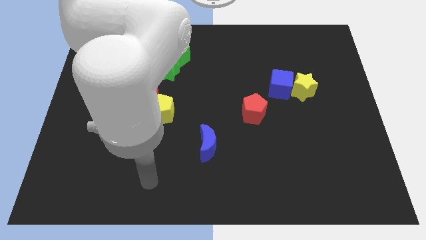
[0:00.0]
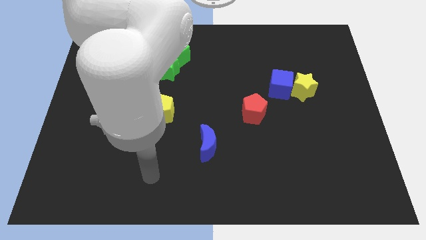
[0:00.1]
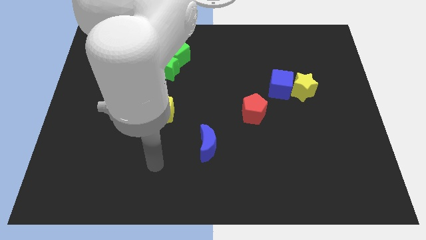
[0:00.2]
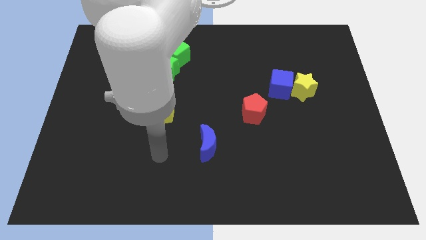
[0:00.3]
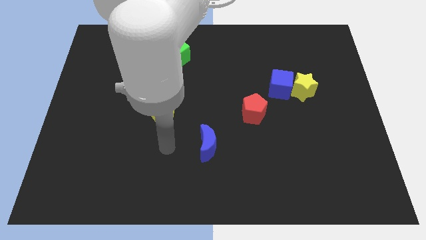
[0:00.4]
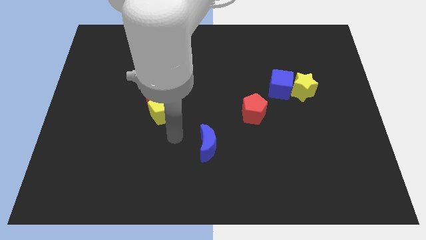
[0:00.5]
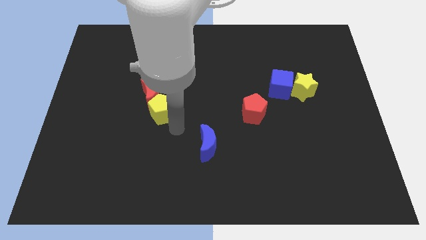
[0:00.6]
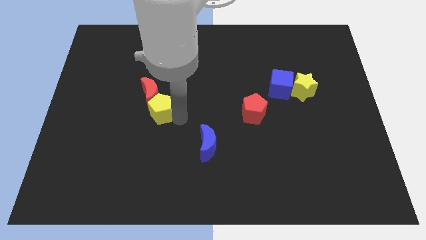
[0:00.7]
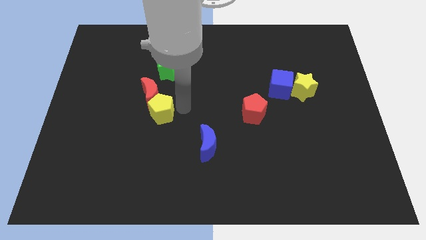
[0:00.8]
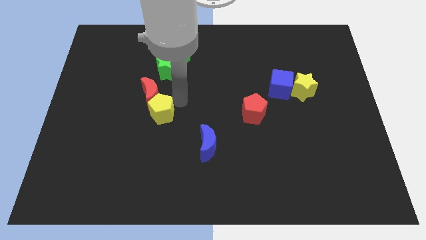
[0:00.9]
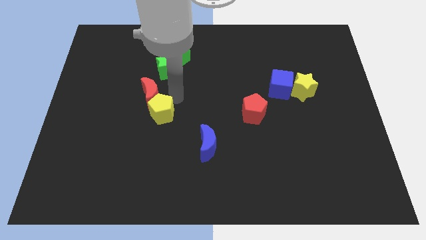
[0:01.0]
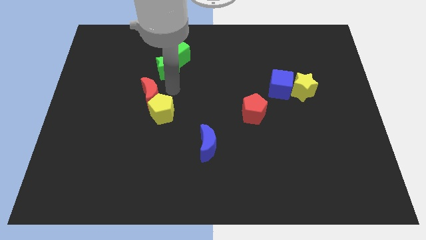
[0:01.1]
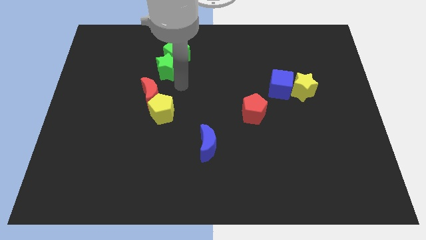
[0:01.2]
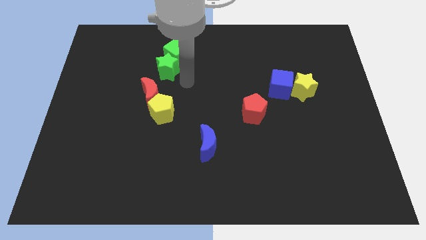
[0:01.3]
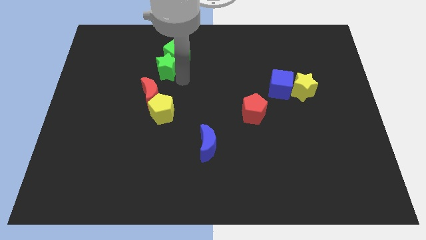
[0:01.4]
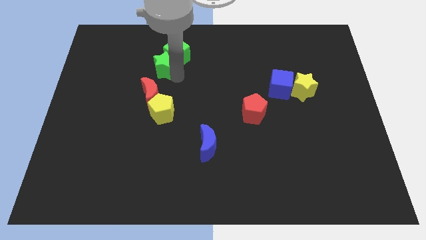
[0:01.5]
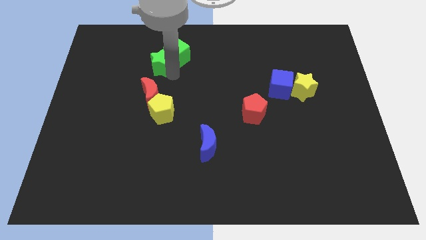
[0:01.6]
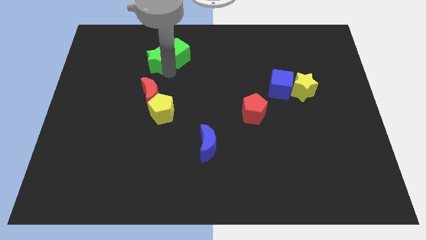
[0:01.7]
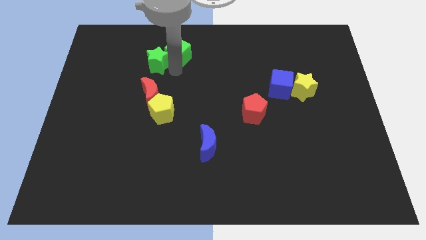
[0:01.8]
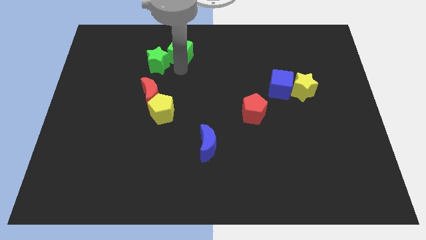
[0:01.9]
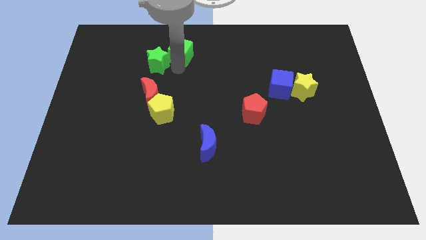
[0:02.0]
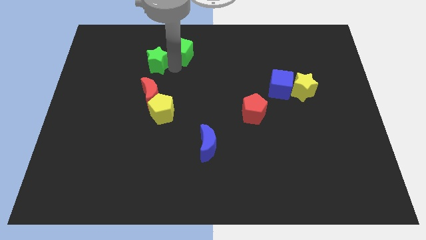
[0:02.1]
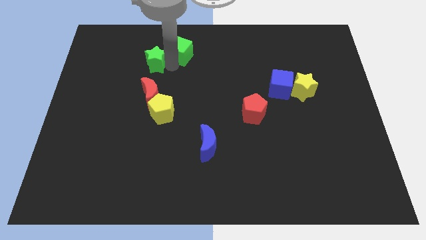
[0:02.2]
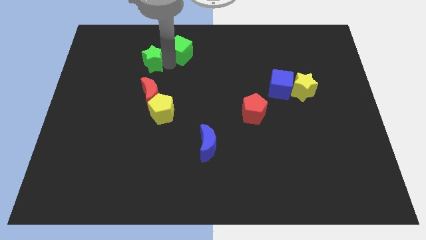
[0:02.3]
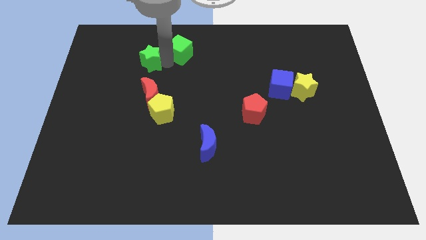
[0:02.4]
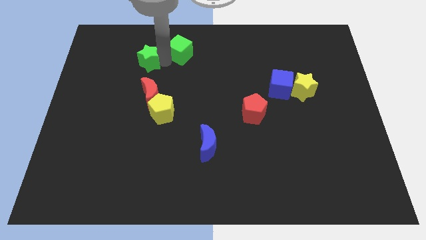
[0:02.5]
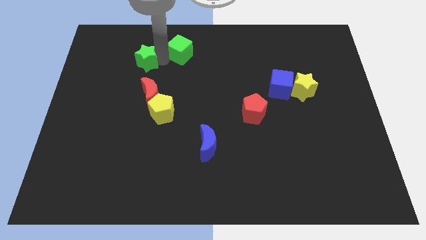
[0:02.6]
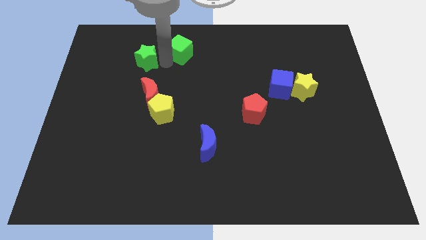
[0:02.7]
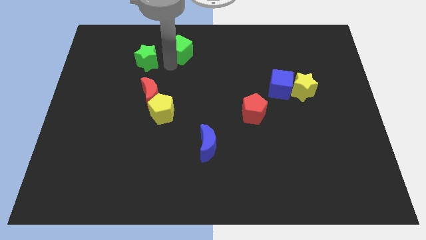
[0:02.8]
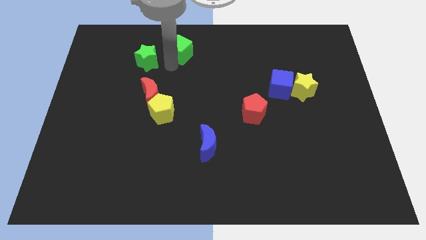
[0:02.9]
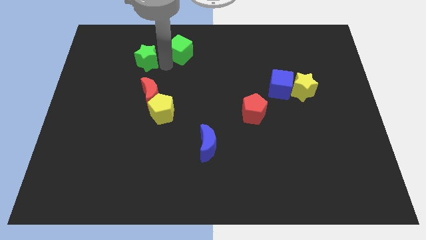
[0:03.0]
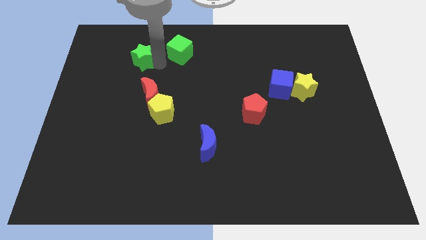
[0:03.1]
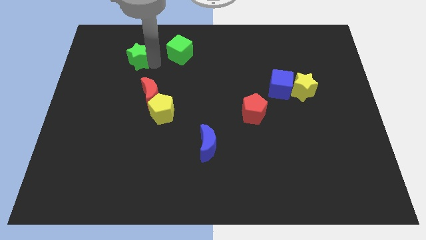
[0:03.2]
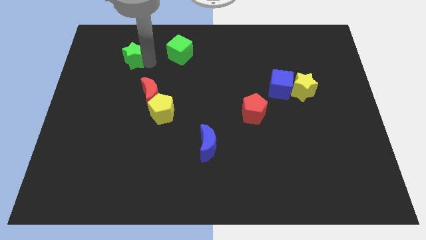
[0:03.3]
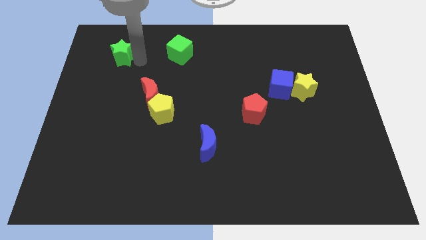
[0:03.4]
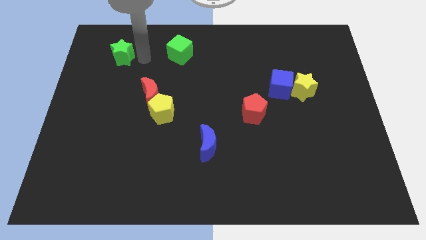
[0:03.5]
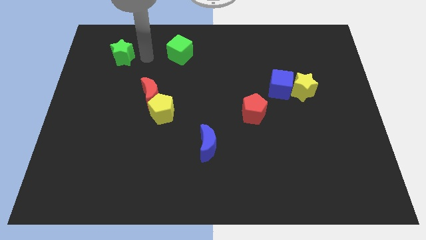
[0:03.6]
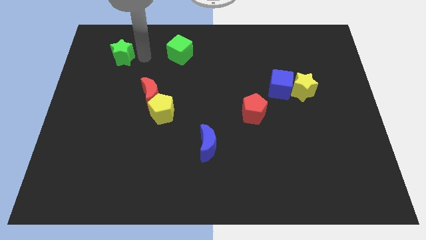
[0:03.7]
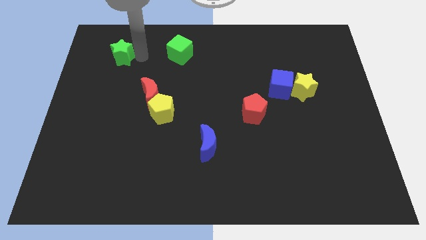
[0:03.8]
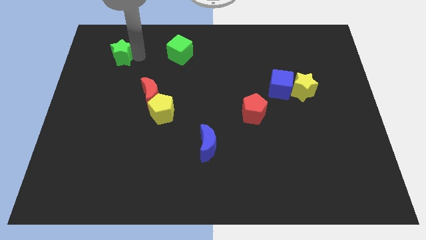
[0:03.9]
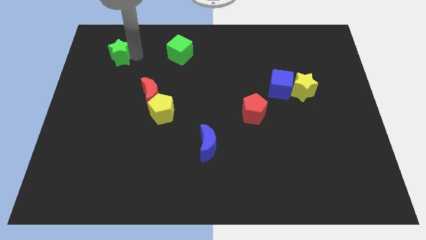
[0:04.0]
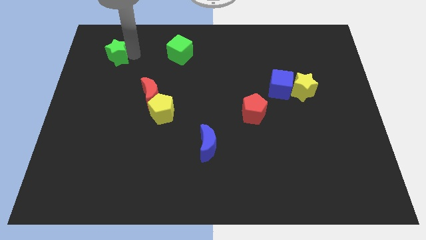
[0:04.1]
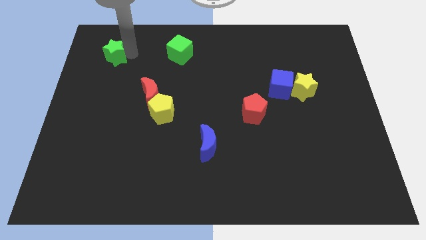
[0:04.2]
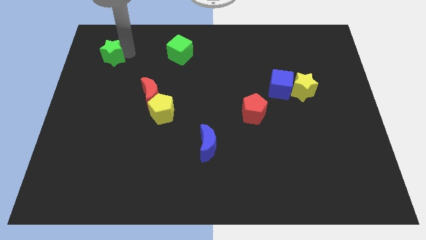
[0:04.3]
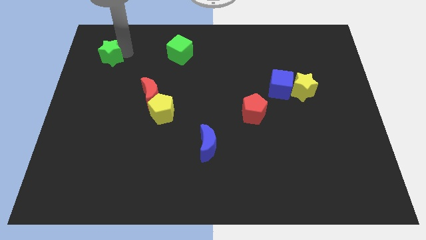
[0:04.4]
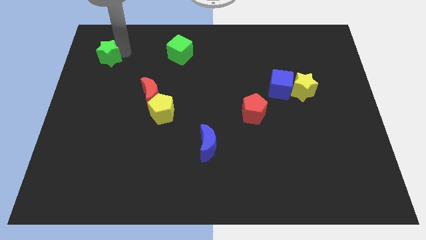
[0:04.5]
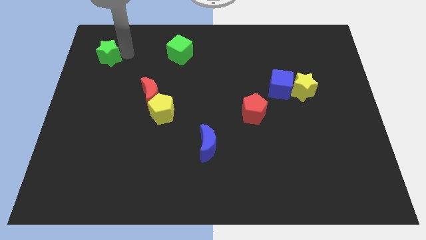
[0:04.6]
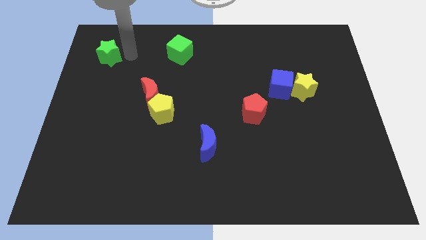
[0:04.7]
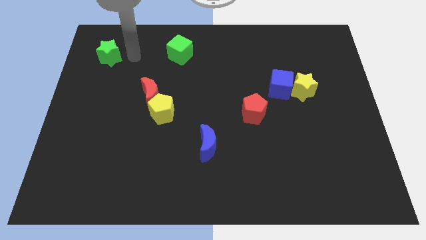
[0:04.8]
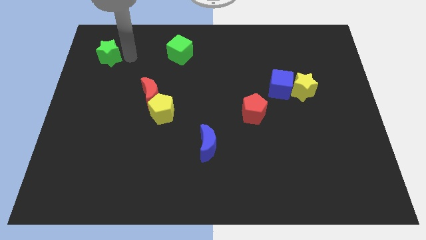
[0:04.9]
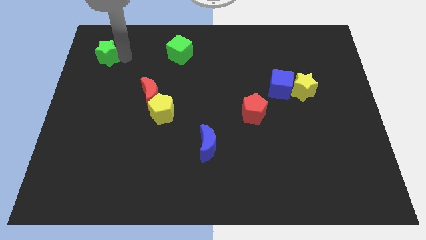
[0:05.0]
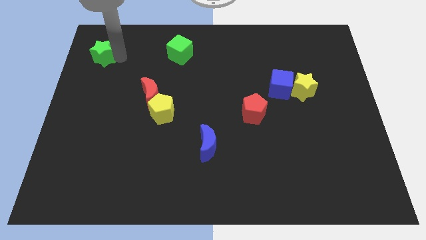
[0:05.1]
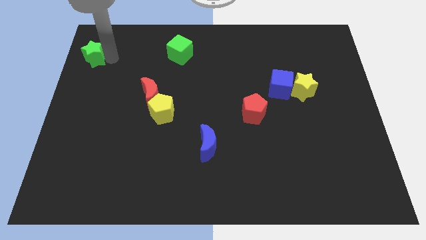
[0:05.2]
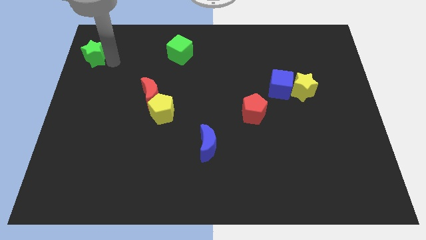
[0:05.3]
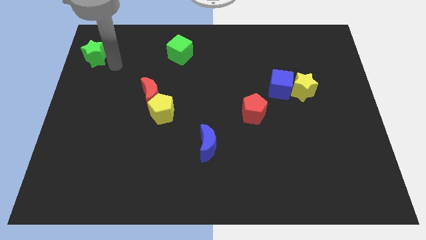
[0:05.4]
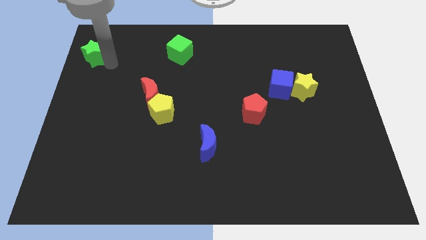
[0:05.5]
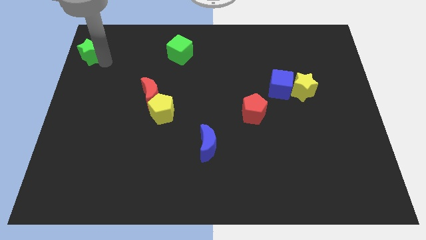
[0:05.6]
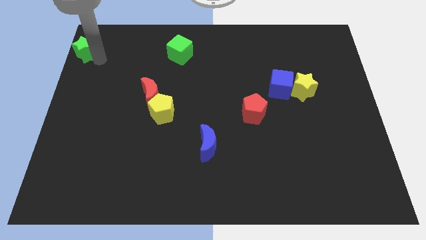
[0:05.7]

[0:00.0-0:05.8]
put the green star to the top left of the board

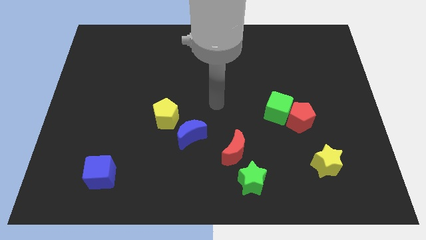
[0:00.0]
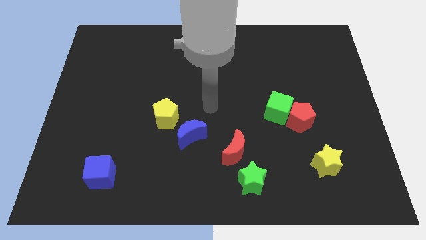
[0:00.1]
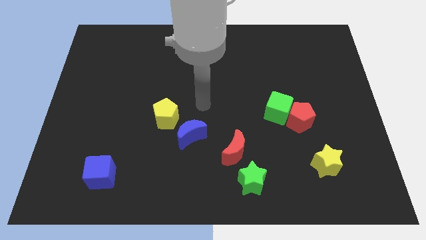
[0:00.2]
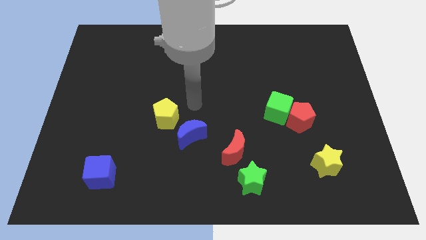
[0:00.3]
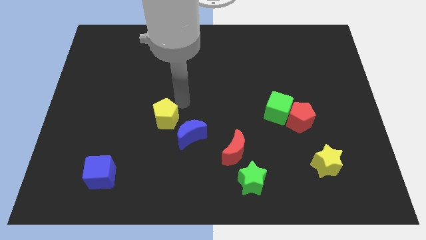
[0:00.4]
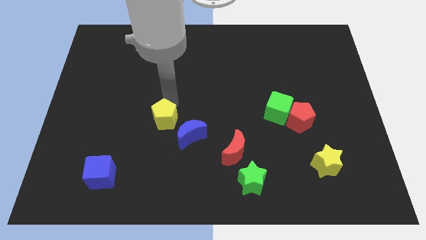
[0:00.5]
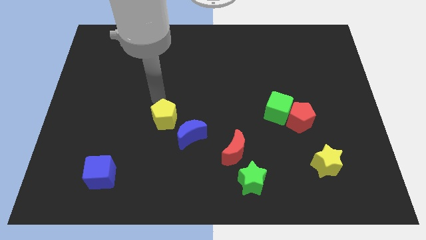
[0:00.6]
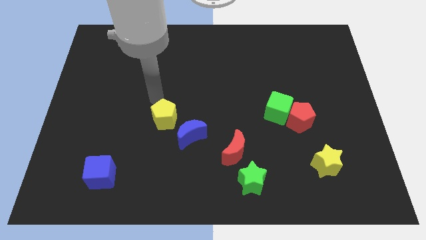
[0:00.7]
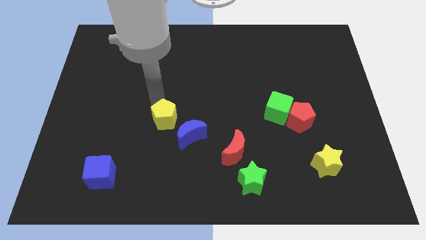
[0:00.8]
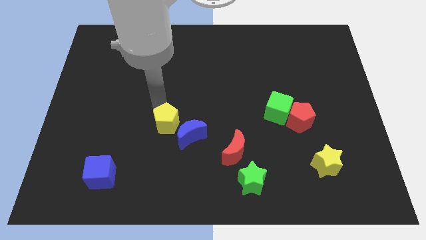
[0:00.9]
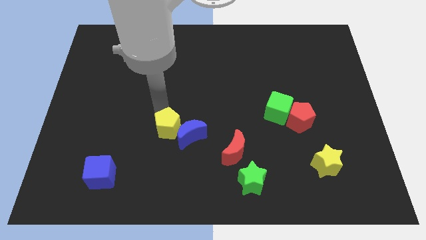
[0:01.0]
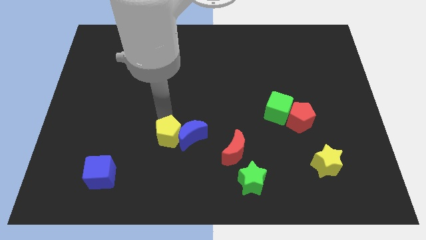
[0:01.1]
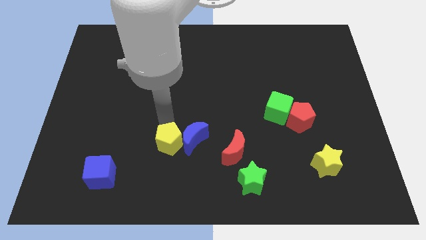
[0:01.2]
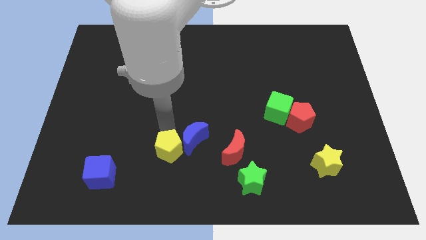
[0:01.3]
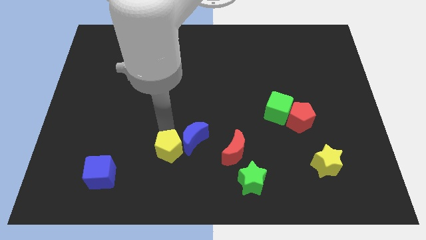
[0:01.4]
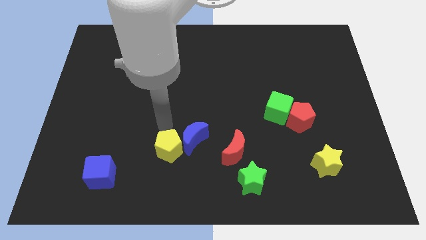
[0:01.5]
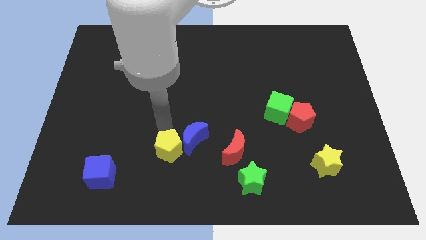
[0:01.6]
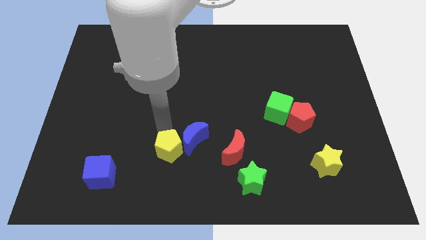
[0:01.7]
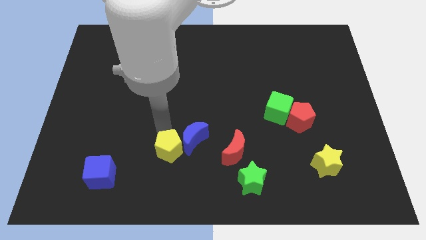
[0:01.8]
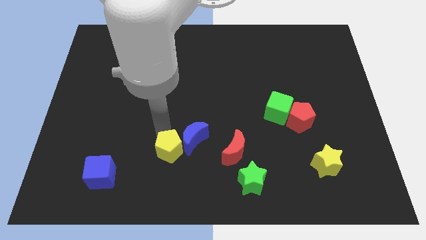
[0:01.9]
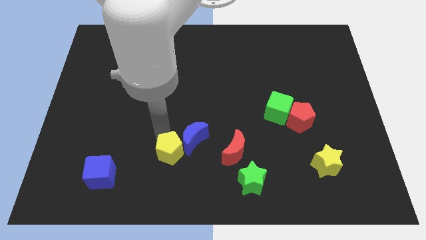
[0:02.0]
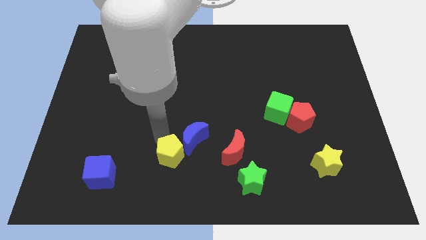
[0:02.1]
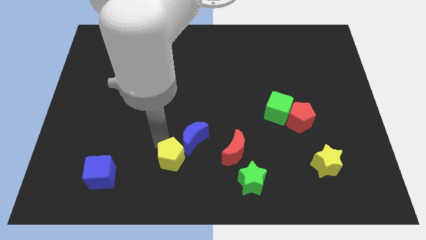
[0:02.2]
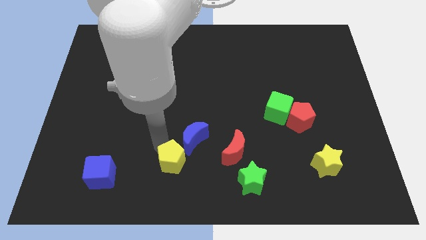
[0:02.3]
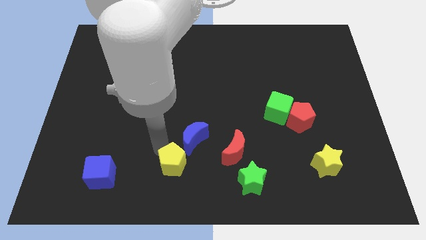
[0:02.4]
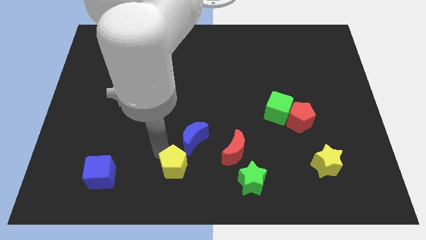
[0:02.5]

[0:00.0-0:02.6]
push the yellow pentagon to the bottom side
